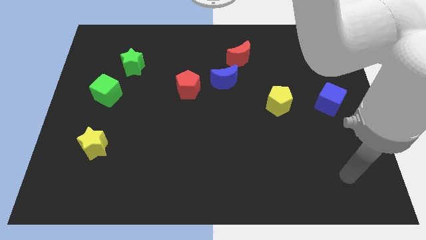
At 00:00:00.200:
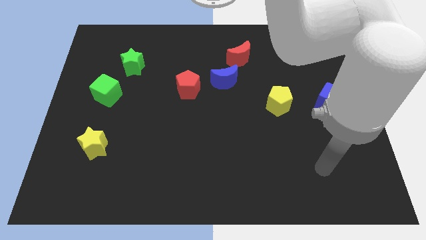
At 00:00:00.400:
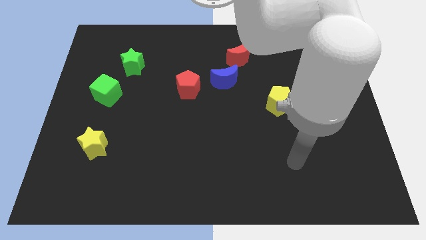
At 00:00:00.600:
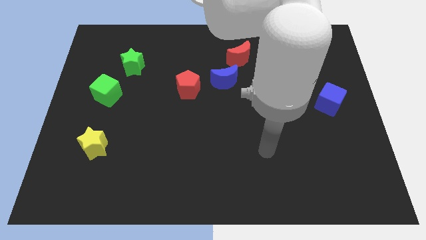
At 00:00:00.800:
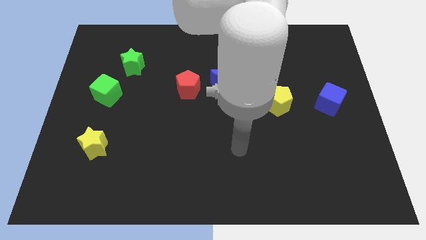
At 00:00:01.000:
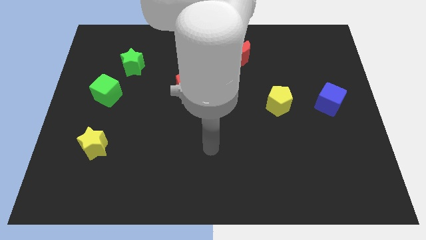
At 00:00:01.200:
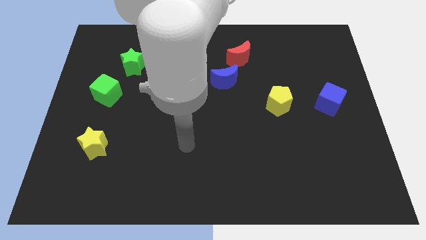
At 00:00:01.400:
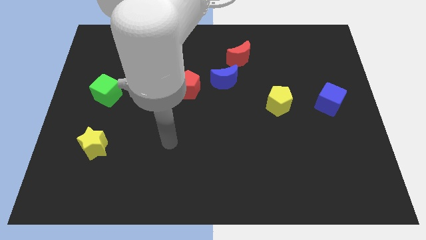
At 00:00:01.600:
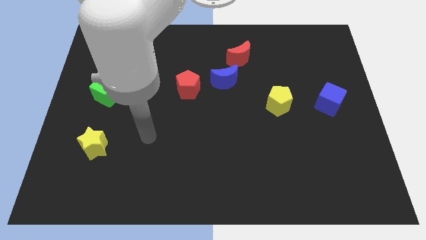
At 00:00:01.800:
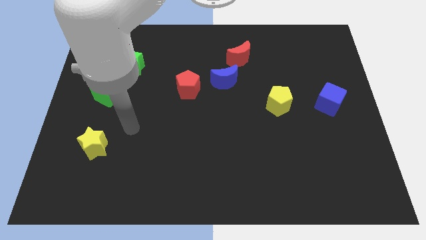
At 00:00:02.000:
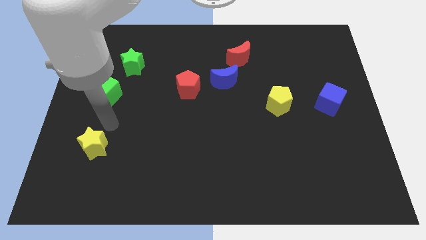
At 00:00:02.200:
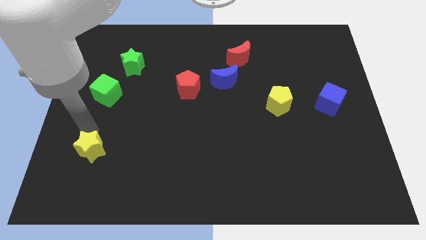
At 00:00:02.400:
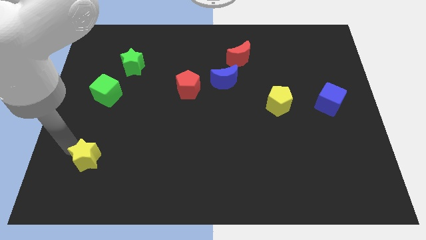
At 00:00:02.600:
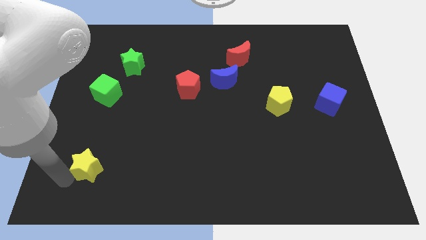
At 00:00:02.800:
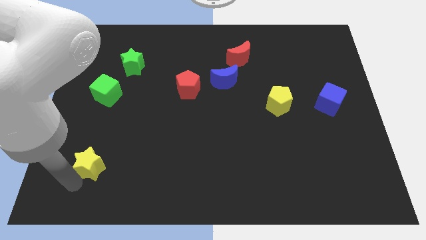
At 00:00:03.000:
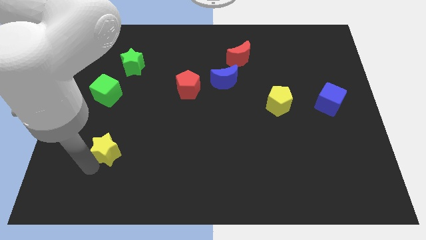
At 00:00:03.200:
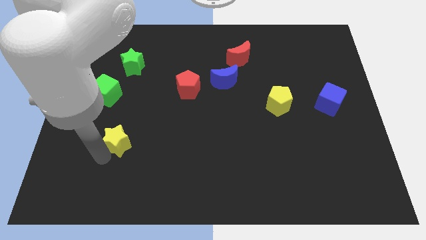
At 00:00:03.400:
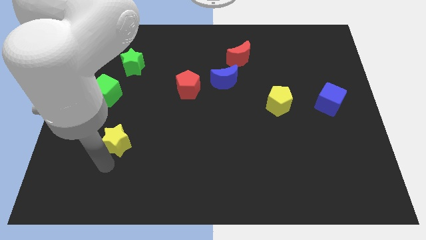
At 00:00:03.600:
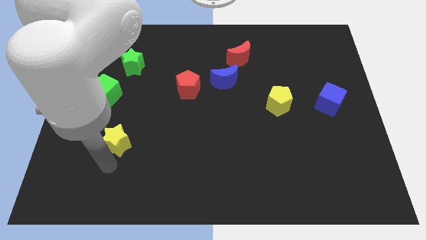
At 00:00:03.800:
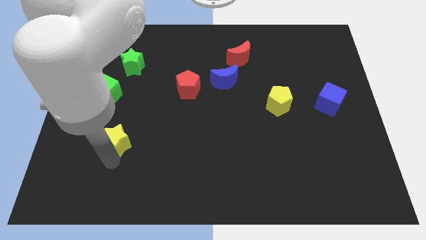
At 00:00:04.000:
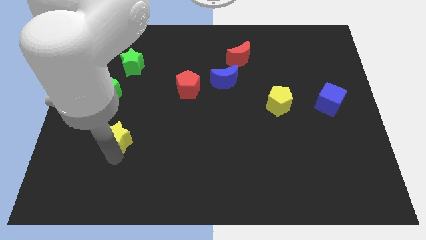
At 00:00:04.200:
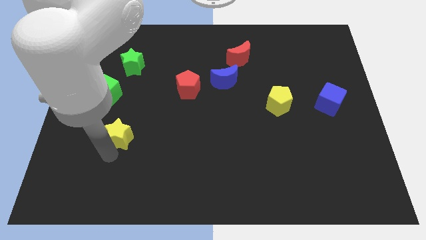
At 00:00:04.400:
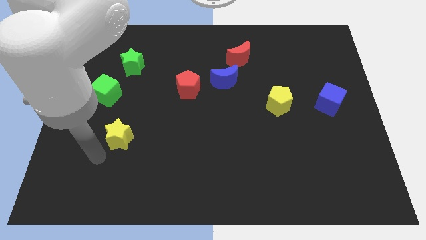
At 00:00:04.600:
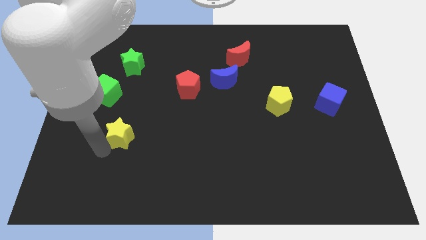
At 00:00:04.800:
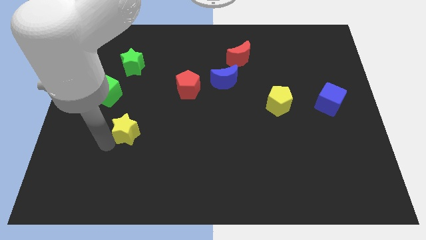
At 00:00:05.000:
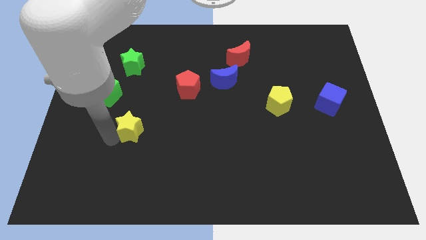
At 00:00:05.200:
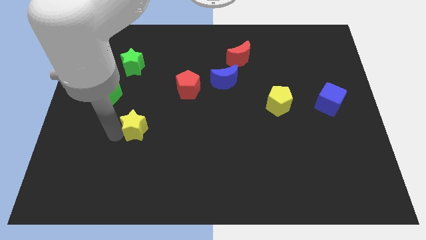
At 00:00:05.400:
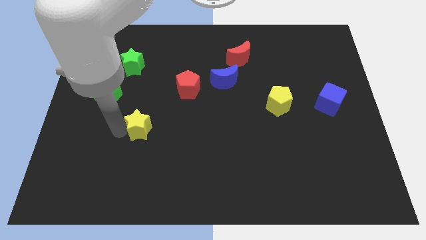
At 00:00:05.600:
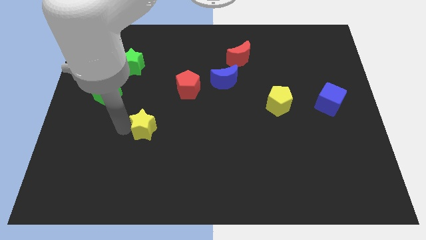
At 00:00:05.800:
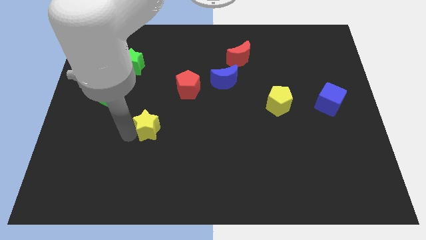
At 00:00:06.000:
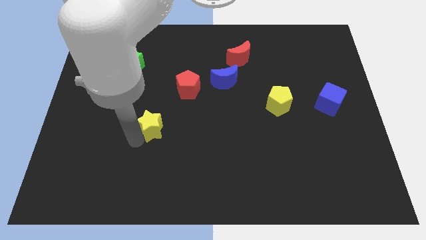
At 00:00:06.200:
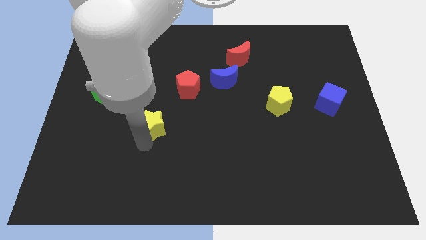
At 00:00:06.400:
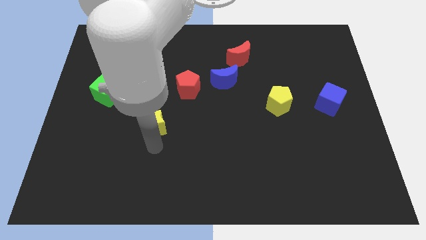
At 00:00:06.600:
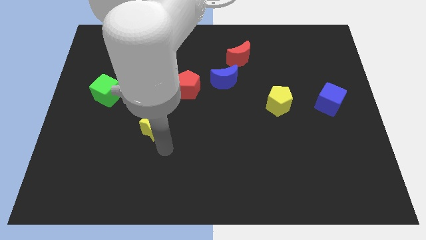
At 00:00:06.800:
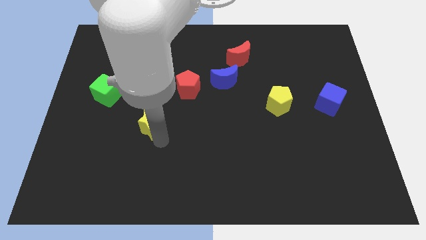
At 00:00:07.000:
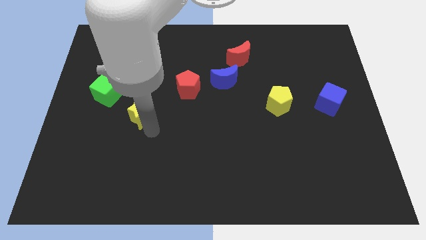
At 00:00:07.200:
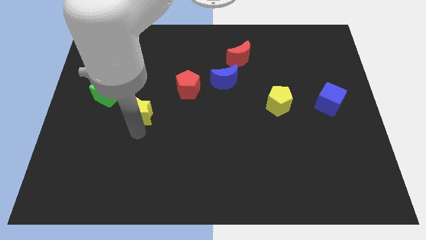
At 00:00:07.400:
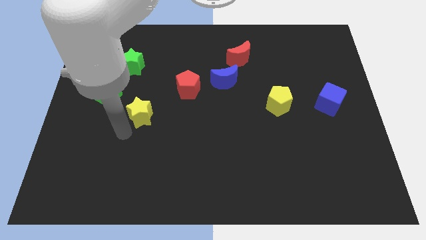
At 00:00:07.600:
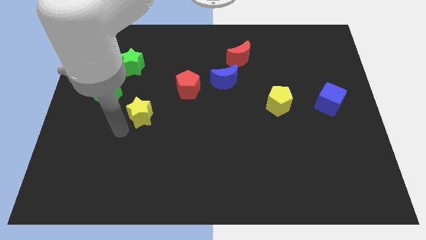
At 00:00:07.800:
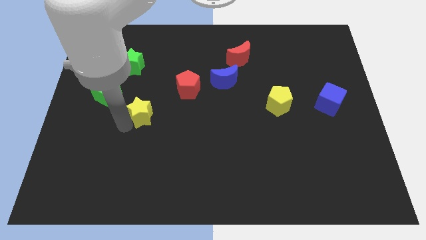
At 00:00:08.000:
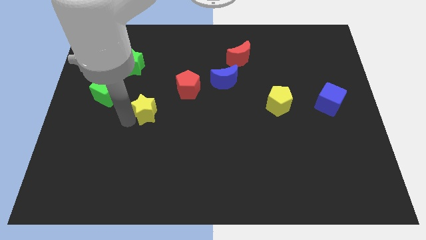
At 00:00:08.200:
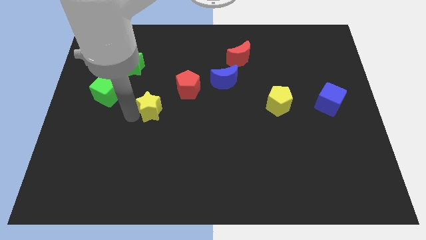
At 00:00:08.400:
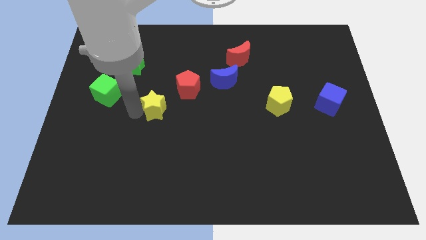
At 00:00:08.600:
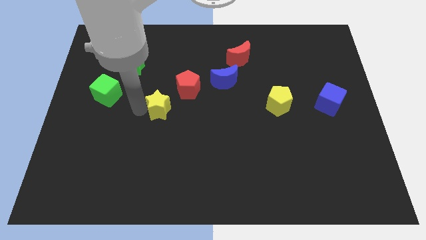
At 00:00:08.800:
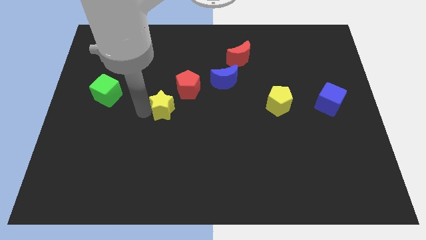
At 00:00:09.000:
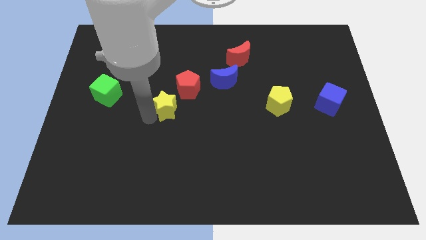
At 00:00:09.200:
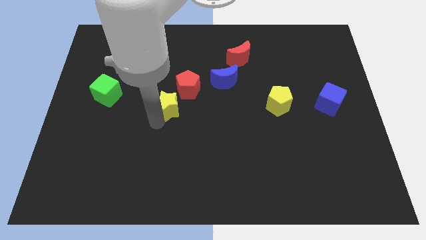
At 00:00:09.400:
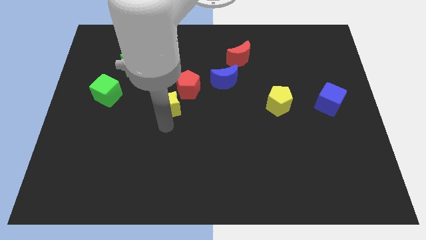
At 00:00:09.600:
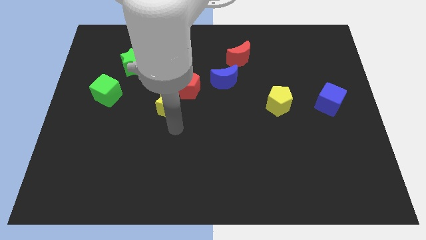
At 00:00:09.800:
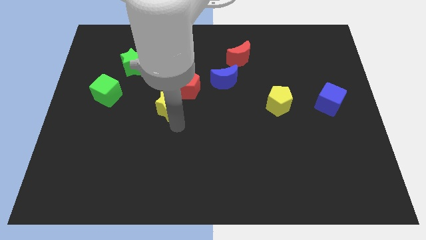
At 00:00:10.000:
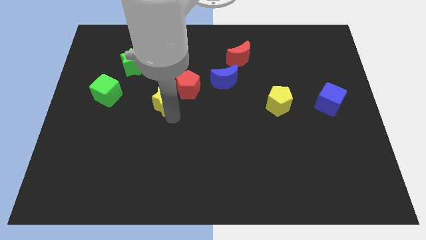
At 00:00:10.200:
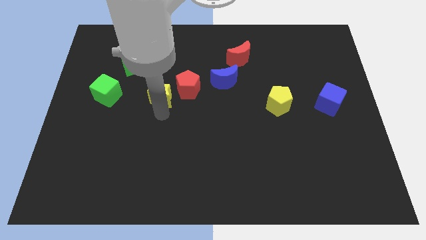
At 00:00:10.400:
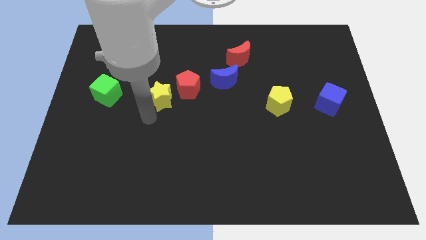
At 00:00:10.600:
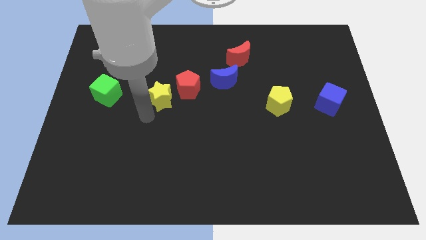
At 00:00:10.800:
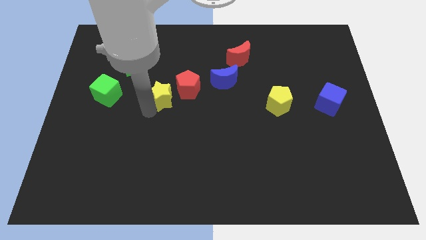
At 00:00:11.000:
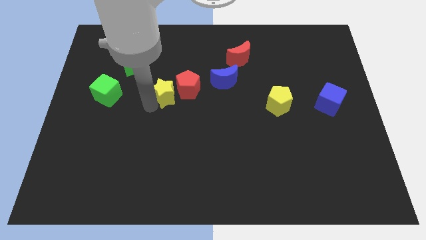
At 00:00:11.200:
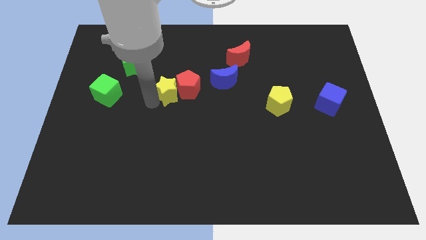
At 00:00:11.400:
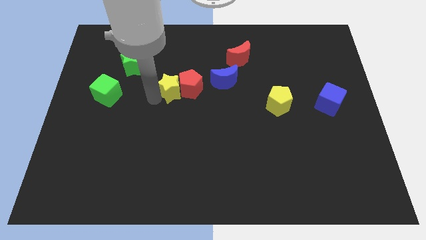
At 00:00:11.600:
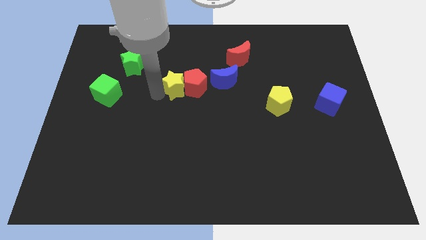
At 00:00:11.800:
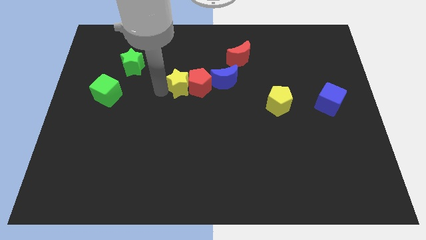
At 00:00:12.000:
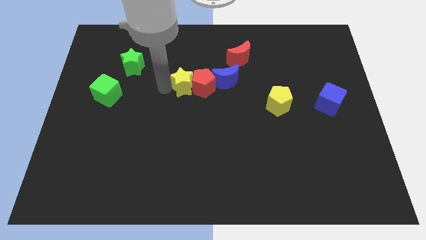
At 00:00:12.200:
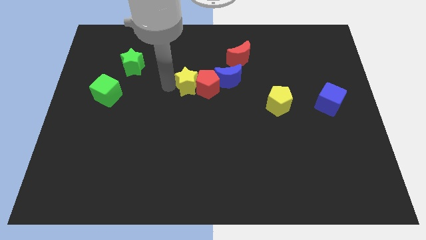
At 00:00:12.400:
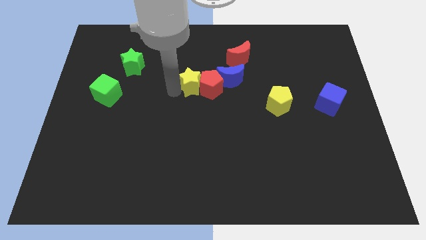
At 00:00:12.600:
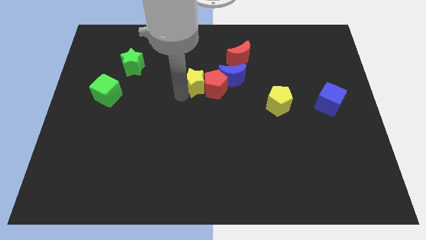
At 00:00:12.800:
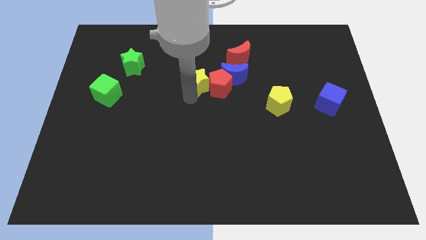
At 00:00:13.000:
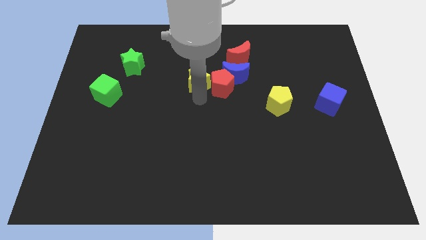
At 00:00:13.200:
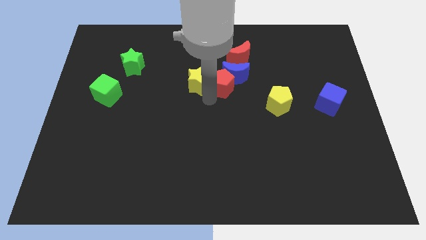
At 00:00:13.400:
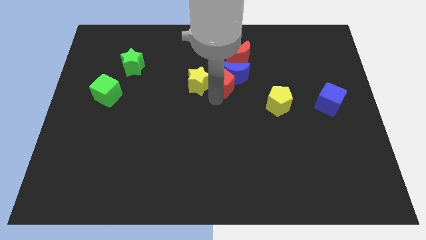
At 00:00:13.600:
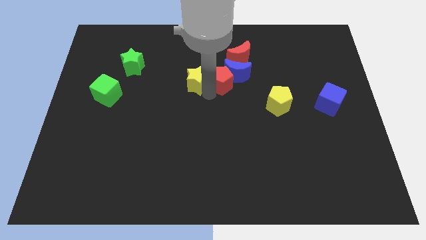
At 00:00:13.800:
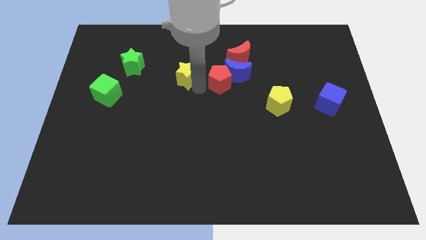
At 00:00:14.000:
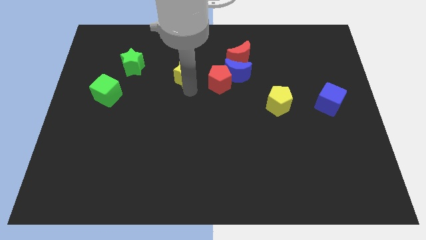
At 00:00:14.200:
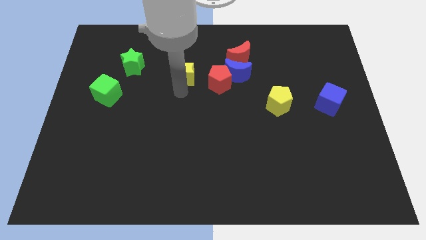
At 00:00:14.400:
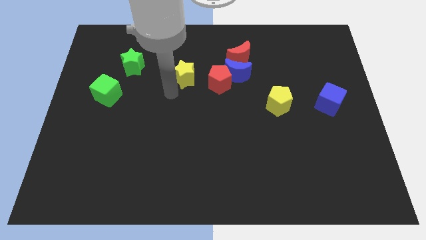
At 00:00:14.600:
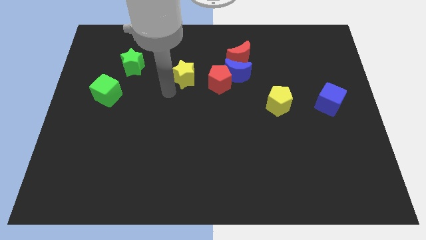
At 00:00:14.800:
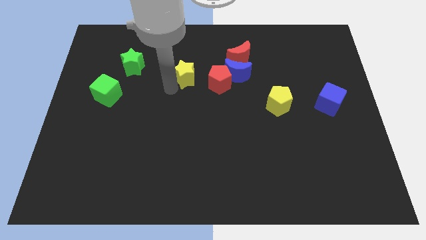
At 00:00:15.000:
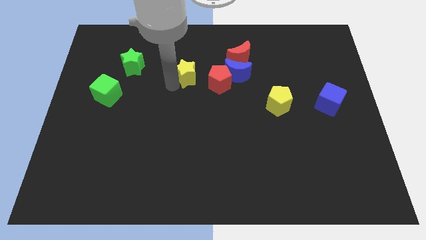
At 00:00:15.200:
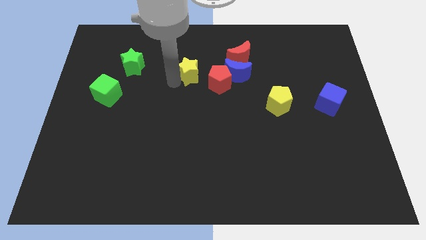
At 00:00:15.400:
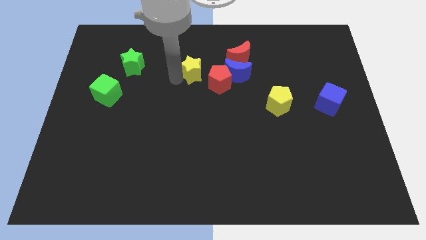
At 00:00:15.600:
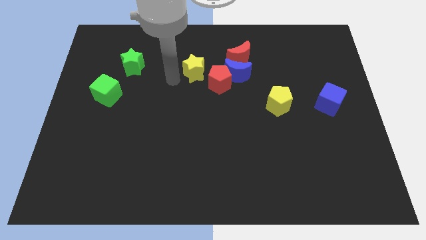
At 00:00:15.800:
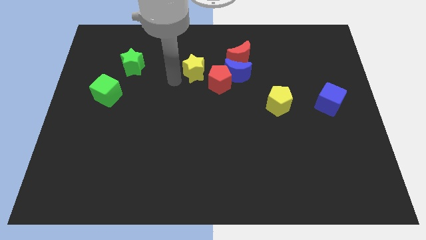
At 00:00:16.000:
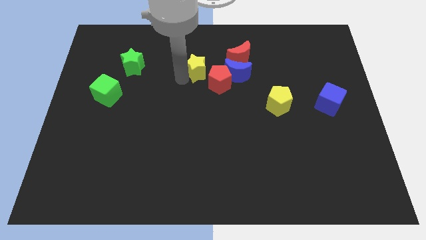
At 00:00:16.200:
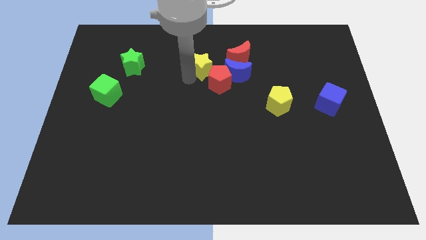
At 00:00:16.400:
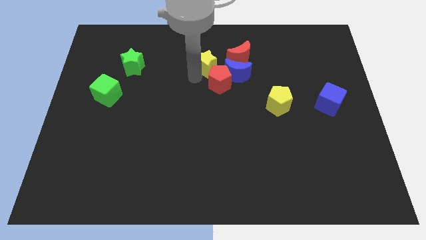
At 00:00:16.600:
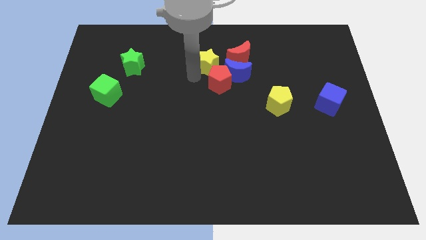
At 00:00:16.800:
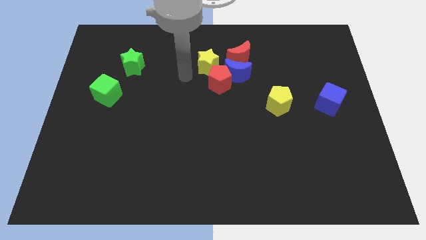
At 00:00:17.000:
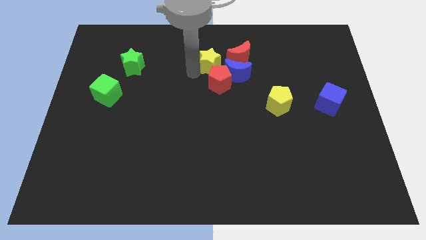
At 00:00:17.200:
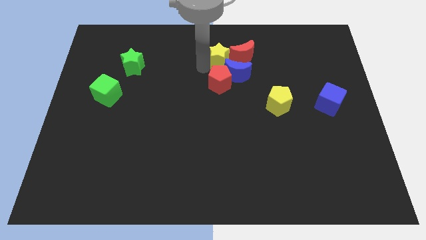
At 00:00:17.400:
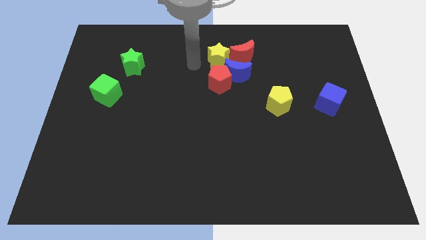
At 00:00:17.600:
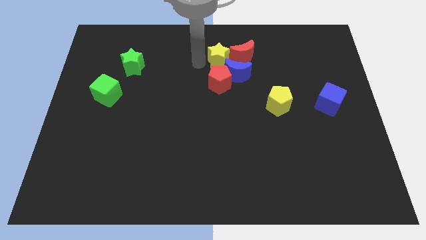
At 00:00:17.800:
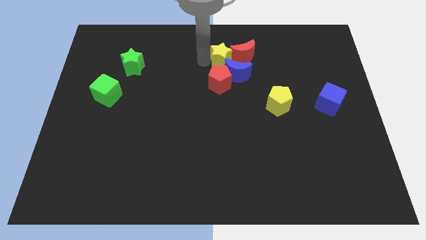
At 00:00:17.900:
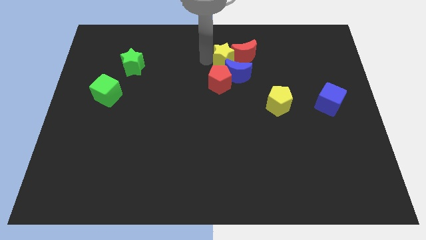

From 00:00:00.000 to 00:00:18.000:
put the yellow star towards the red moon
